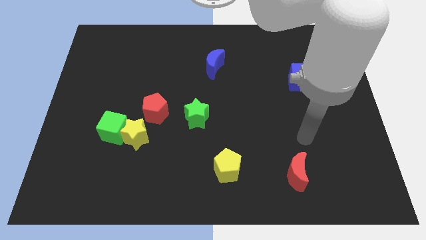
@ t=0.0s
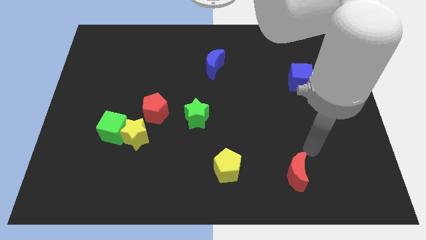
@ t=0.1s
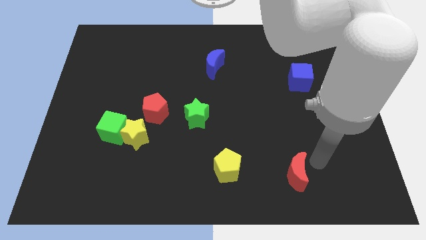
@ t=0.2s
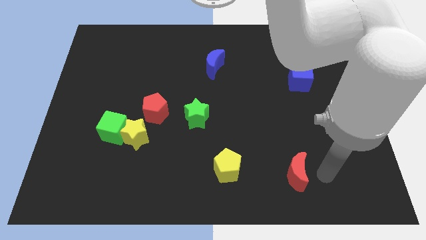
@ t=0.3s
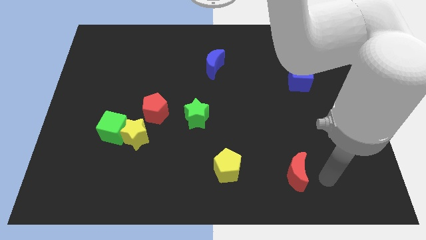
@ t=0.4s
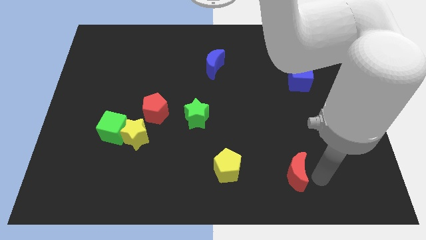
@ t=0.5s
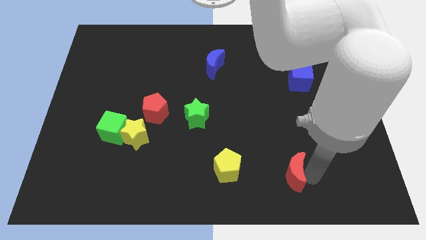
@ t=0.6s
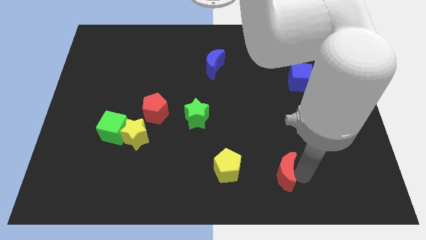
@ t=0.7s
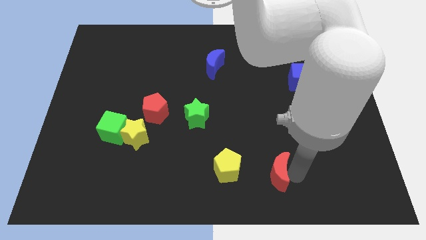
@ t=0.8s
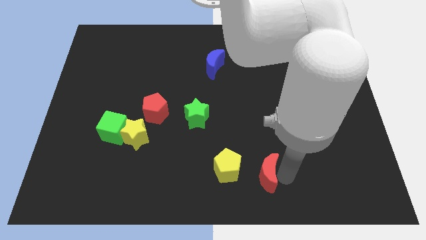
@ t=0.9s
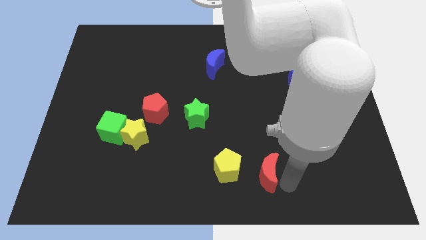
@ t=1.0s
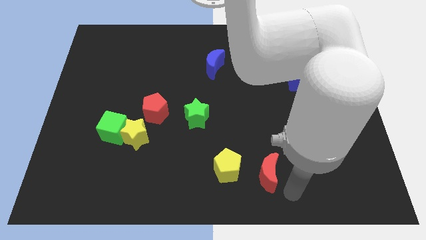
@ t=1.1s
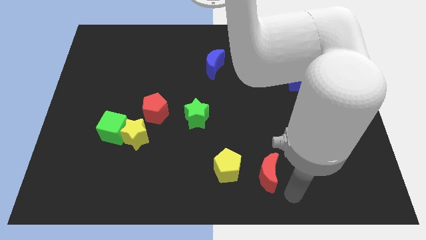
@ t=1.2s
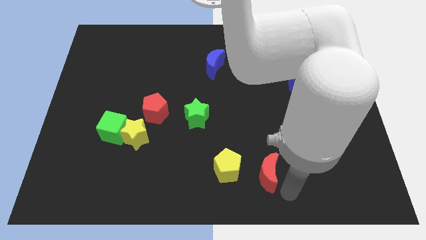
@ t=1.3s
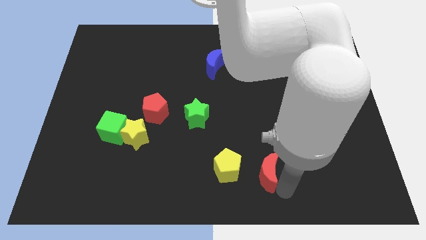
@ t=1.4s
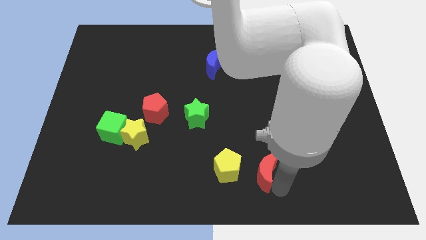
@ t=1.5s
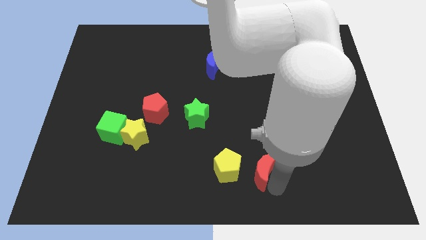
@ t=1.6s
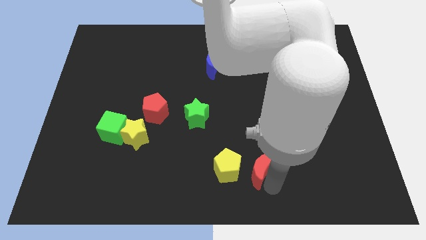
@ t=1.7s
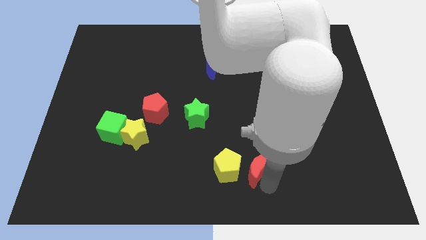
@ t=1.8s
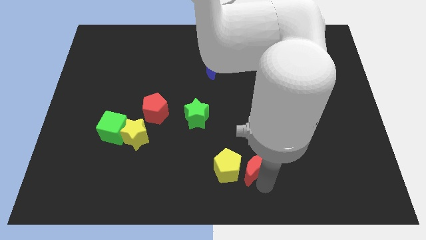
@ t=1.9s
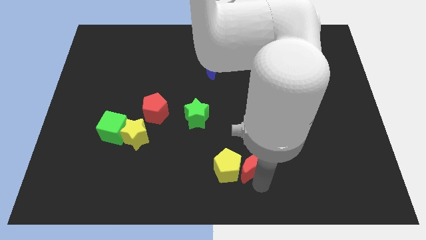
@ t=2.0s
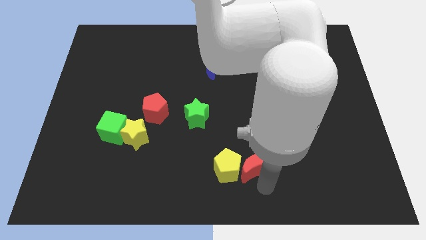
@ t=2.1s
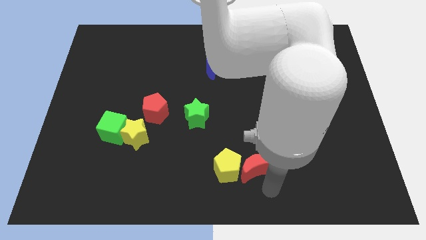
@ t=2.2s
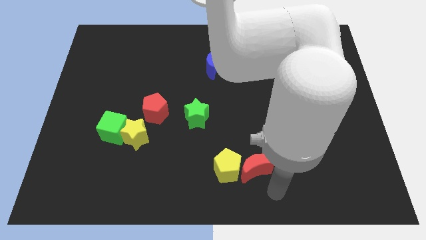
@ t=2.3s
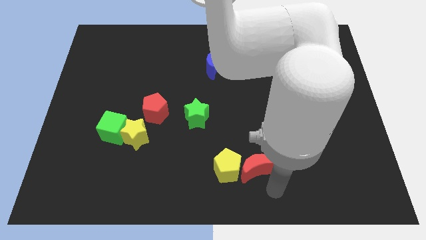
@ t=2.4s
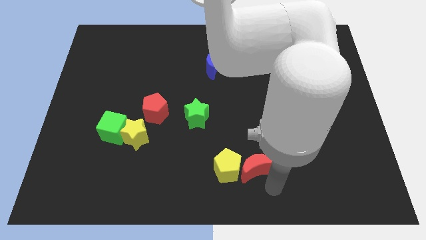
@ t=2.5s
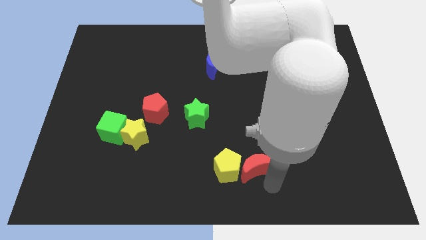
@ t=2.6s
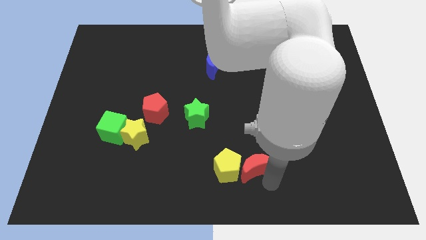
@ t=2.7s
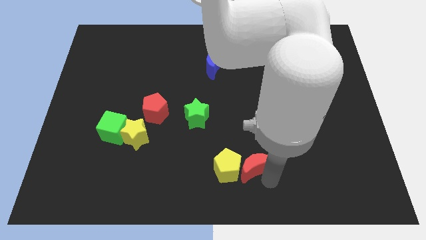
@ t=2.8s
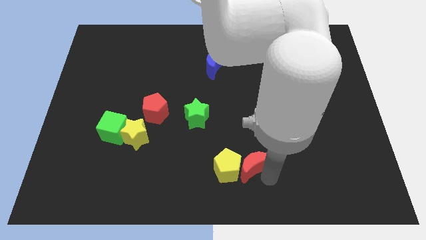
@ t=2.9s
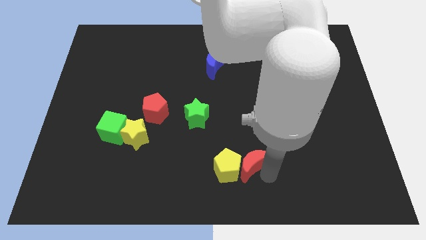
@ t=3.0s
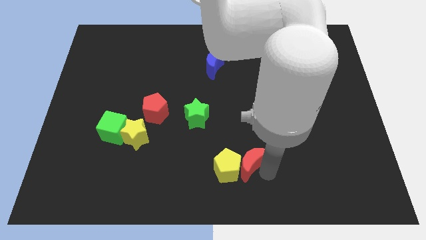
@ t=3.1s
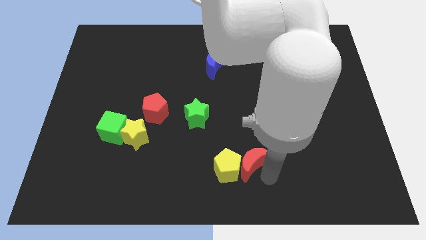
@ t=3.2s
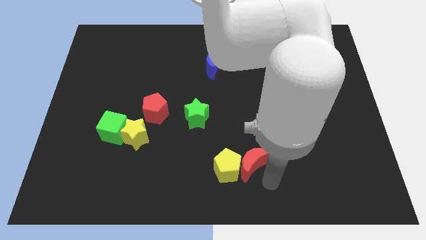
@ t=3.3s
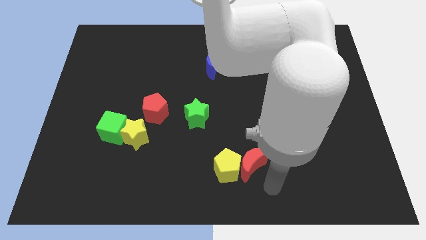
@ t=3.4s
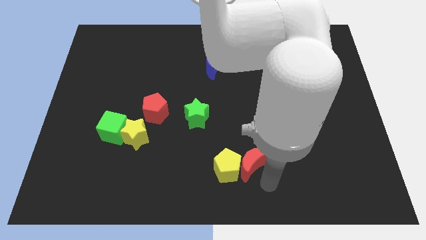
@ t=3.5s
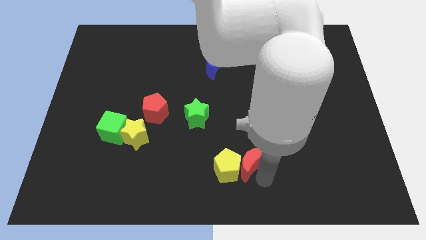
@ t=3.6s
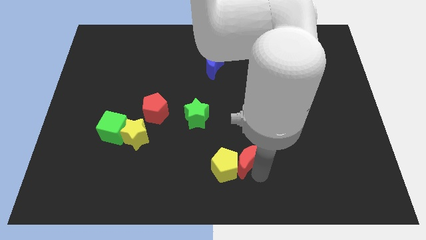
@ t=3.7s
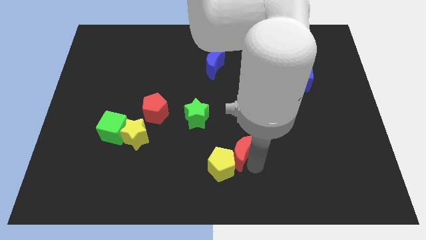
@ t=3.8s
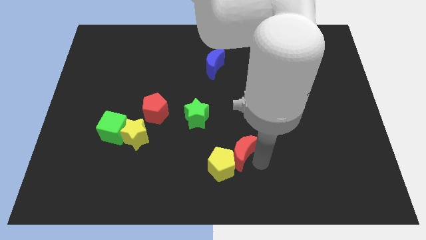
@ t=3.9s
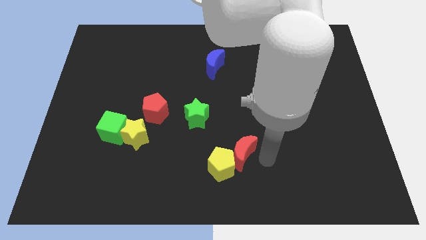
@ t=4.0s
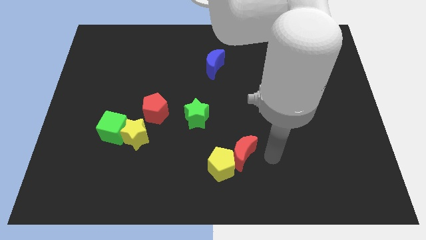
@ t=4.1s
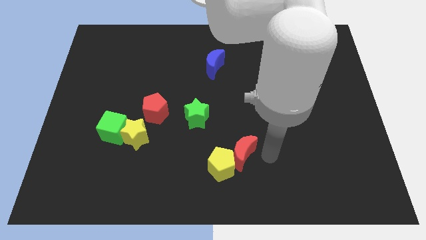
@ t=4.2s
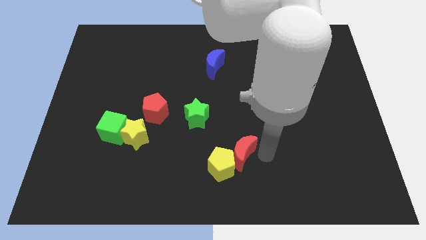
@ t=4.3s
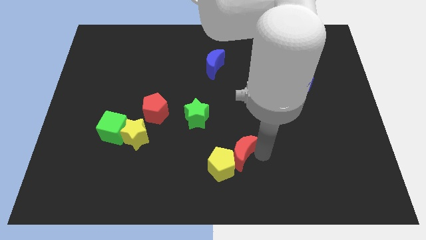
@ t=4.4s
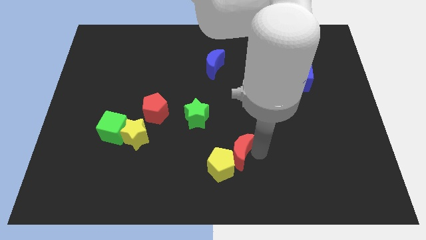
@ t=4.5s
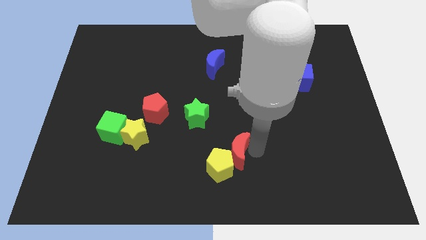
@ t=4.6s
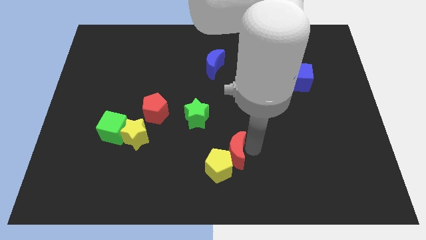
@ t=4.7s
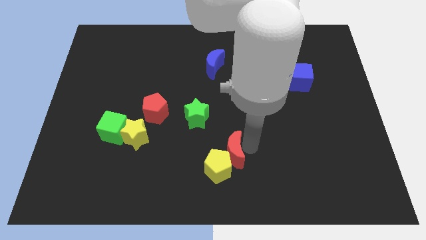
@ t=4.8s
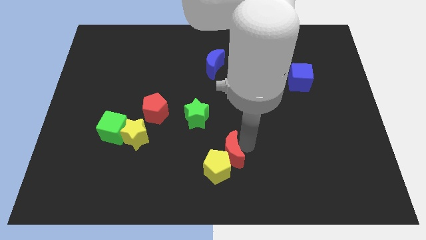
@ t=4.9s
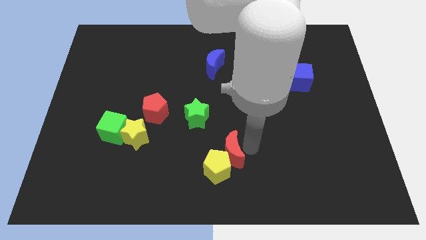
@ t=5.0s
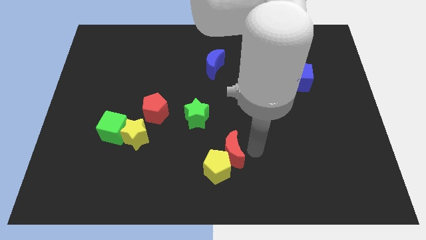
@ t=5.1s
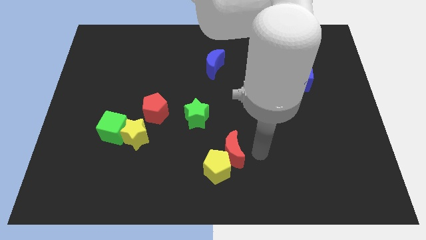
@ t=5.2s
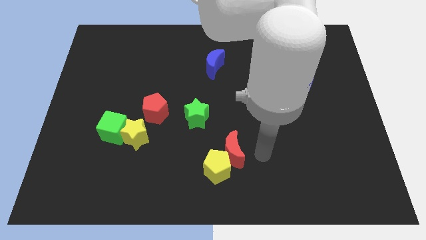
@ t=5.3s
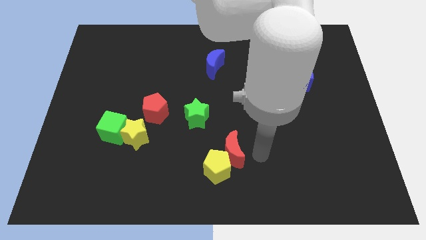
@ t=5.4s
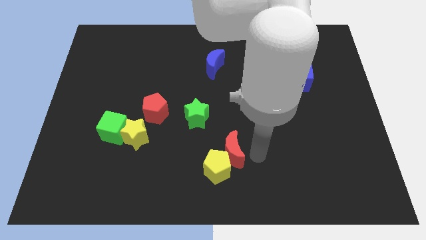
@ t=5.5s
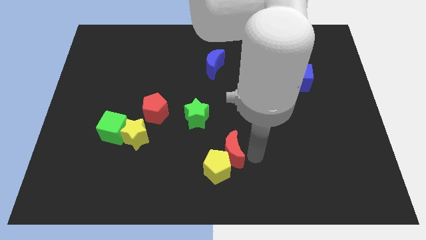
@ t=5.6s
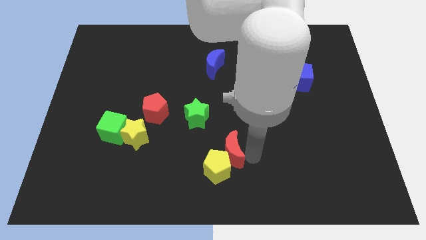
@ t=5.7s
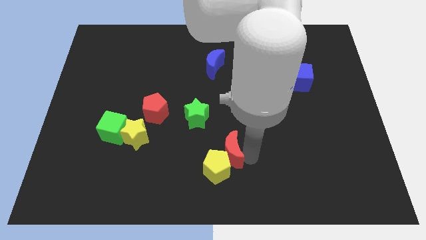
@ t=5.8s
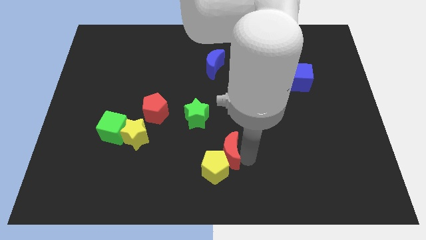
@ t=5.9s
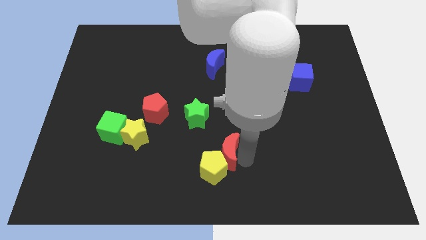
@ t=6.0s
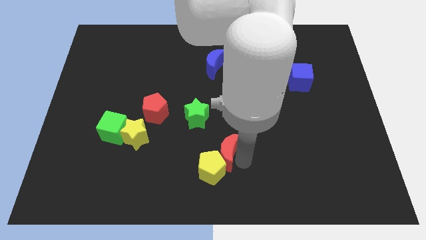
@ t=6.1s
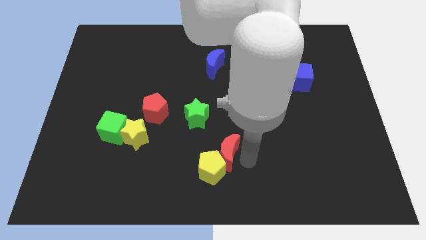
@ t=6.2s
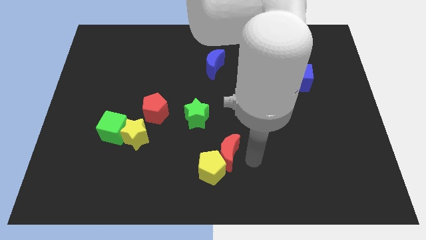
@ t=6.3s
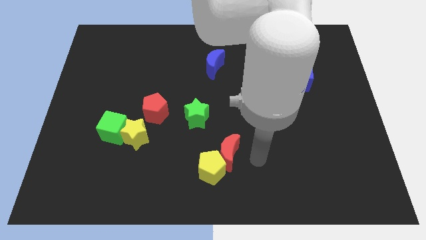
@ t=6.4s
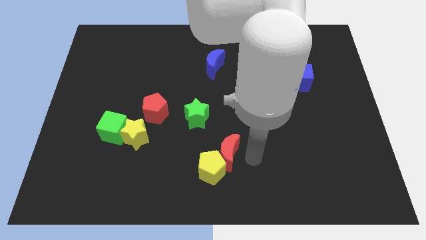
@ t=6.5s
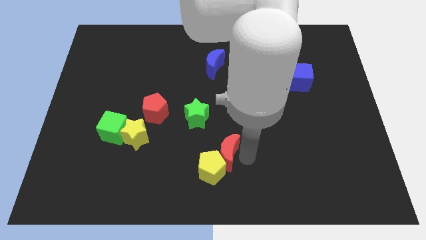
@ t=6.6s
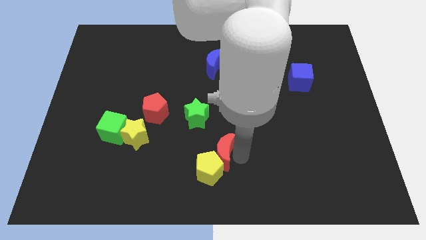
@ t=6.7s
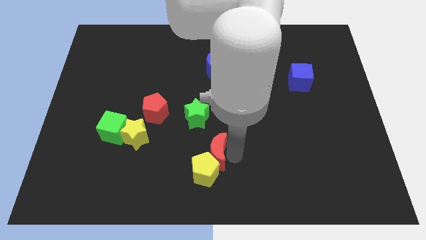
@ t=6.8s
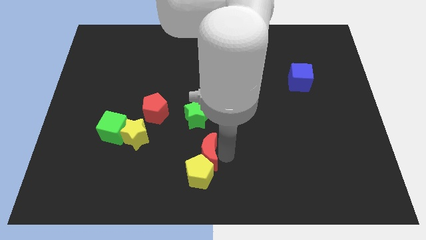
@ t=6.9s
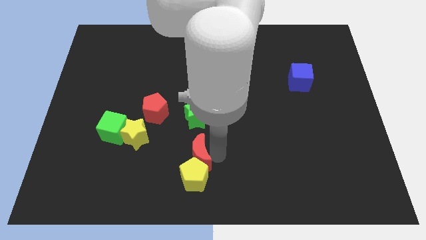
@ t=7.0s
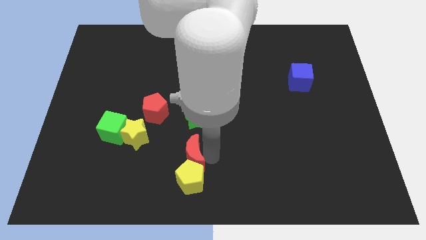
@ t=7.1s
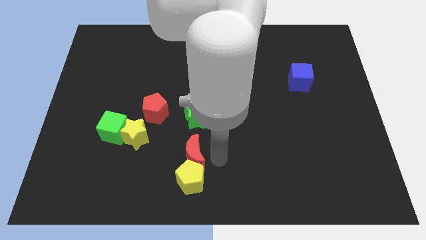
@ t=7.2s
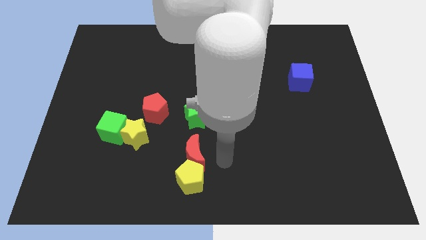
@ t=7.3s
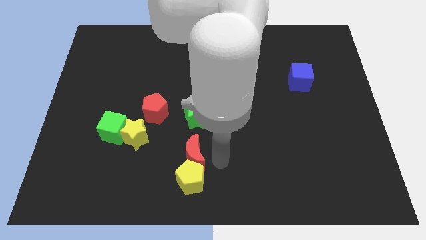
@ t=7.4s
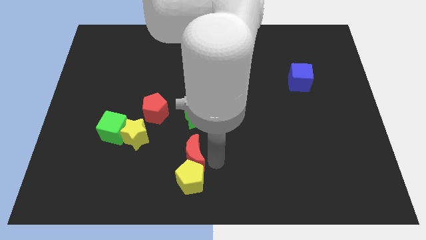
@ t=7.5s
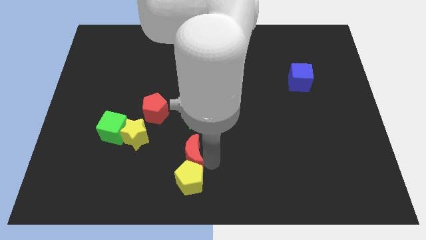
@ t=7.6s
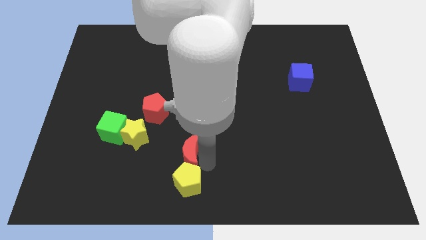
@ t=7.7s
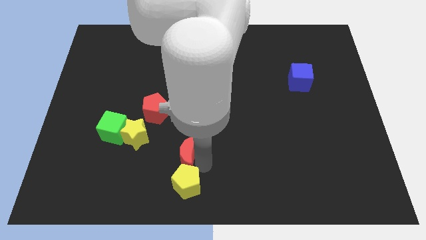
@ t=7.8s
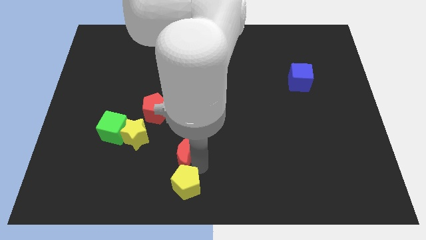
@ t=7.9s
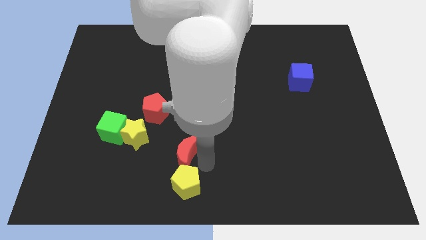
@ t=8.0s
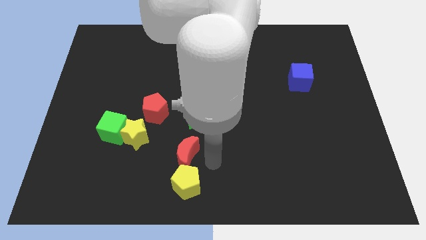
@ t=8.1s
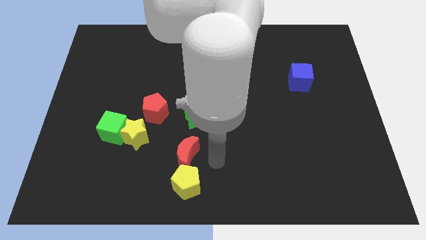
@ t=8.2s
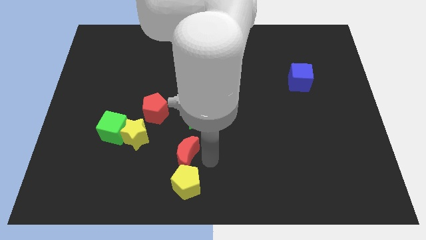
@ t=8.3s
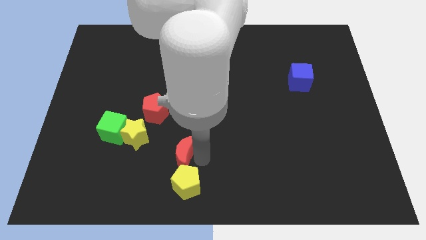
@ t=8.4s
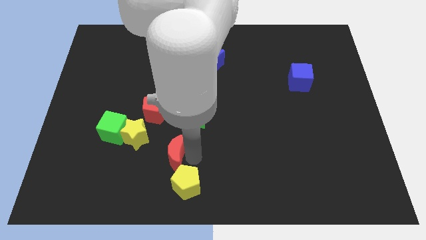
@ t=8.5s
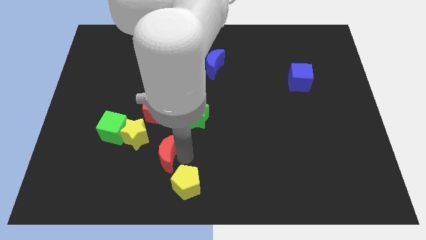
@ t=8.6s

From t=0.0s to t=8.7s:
slide the red moon below the red pentagon
